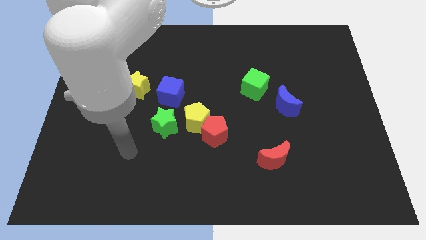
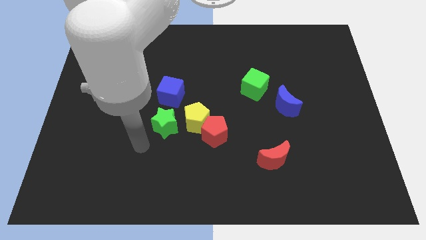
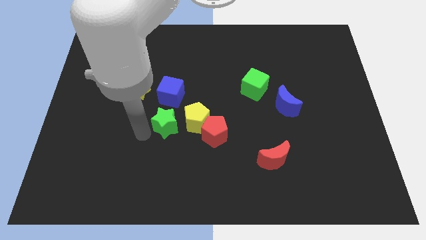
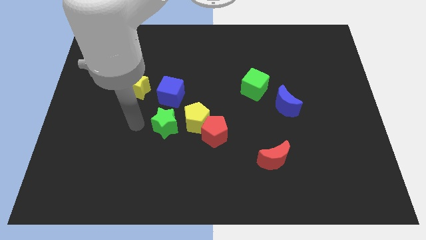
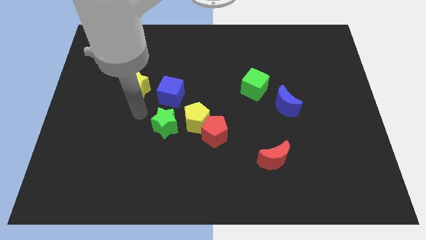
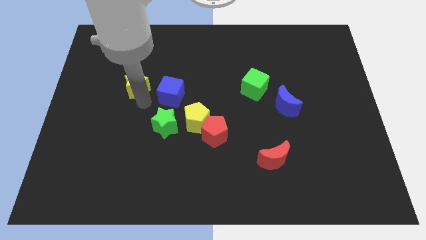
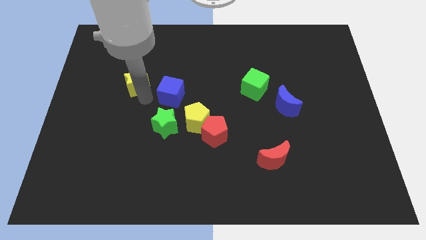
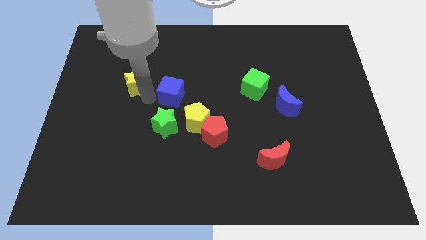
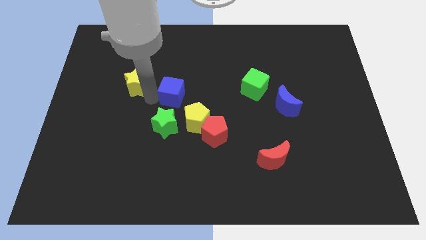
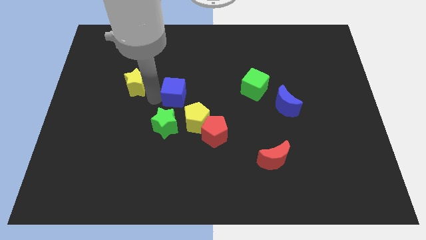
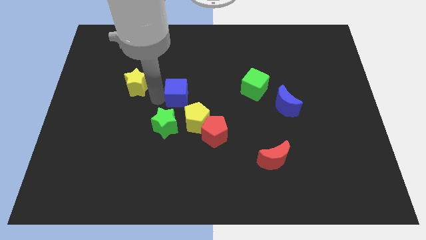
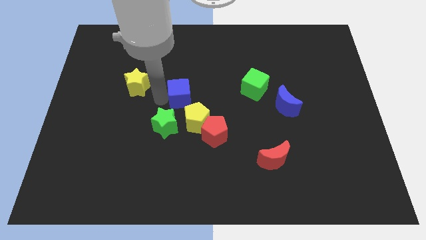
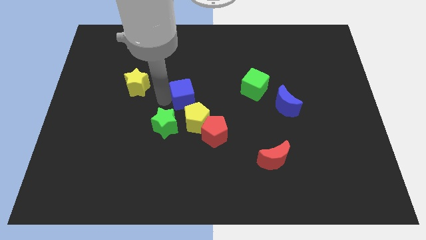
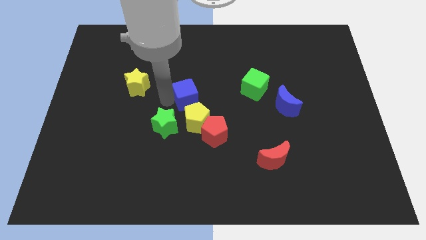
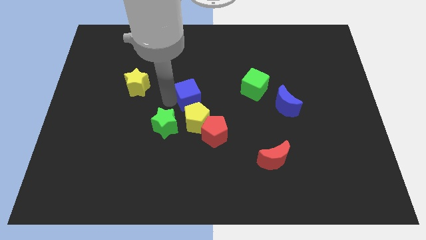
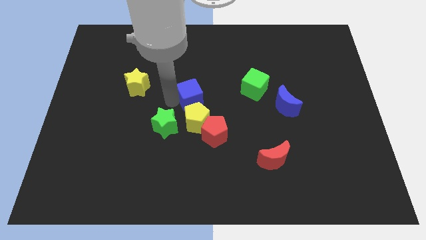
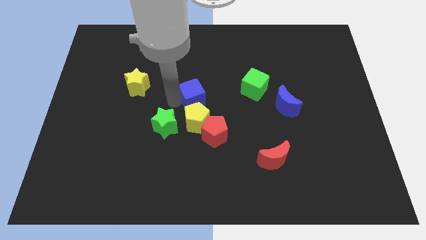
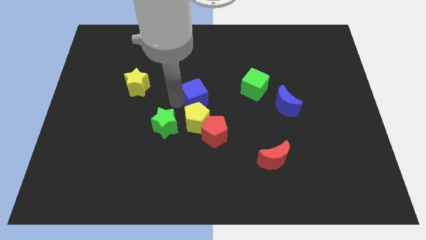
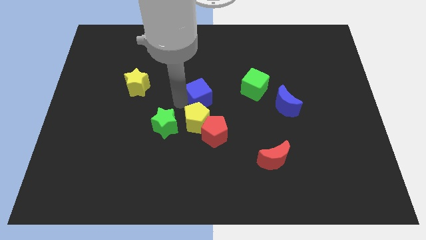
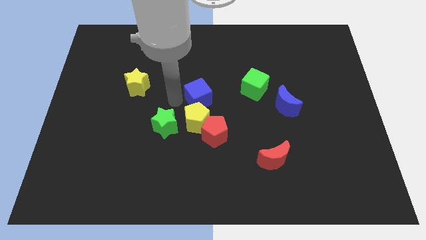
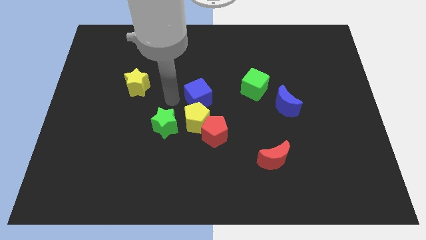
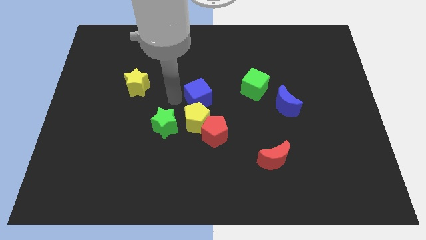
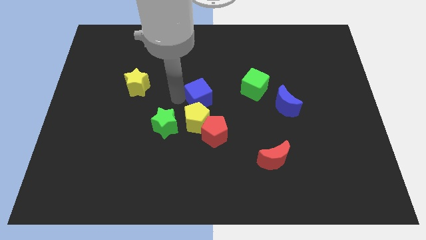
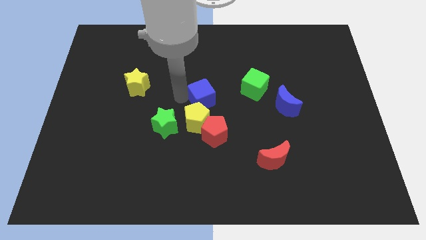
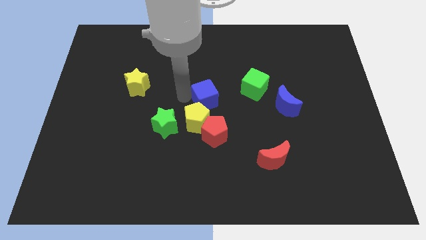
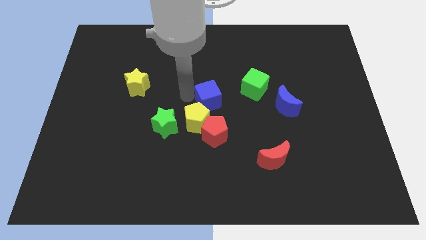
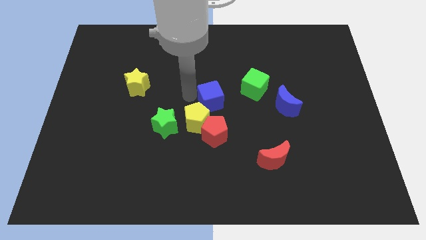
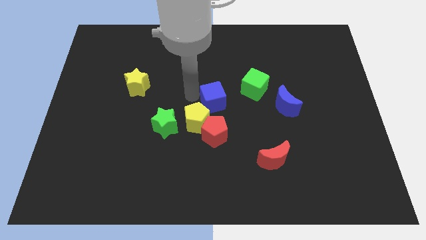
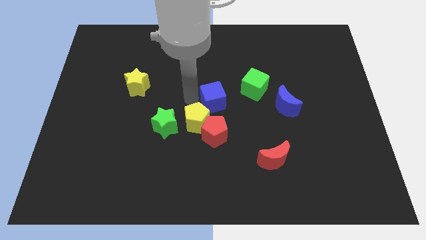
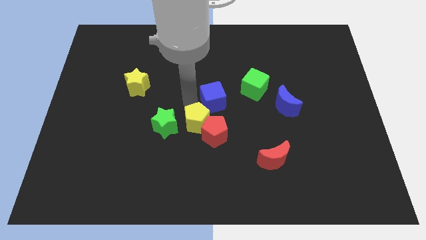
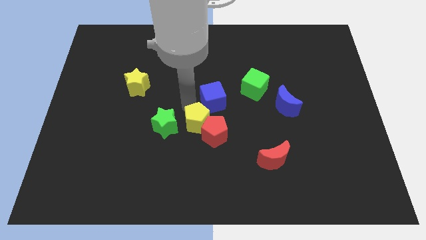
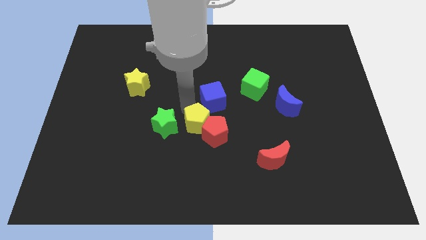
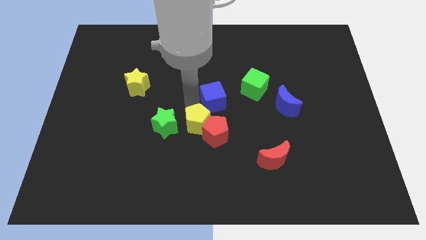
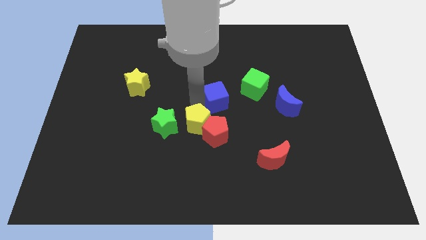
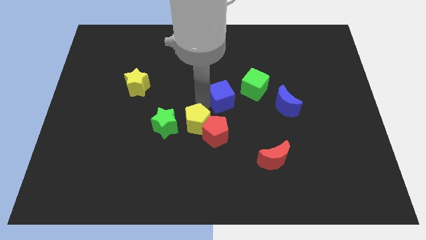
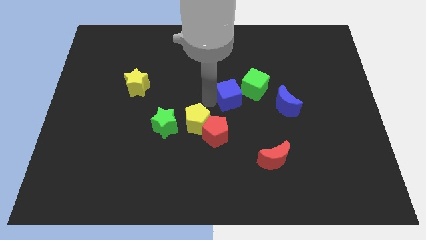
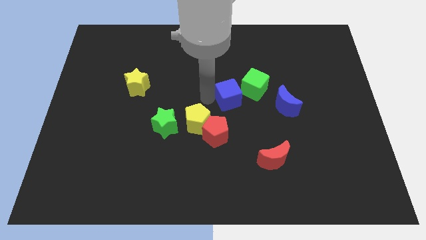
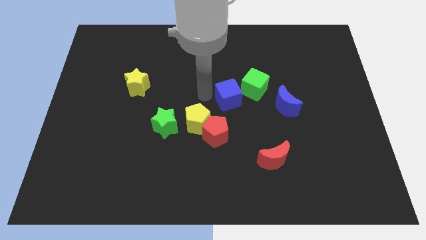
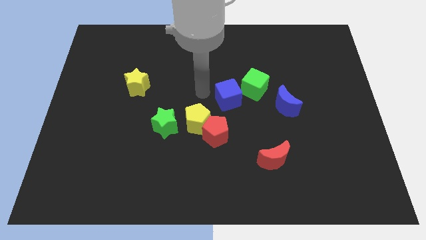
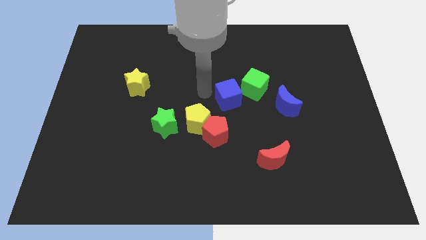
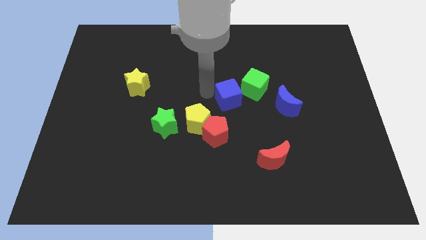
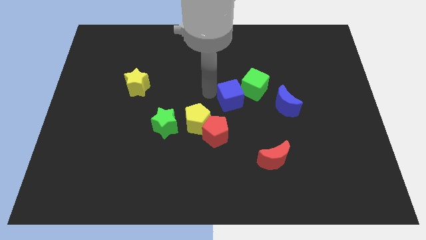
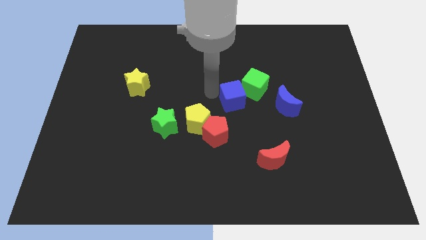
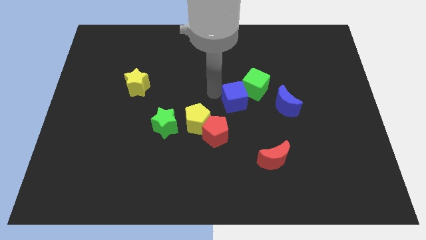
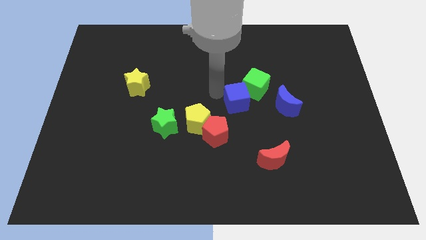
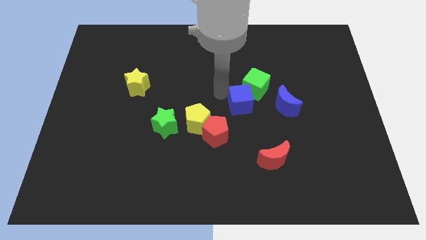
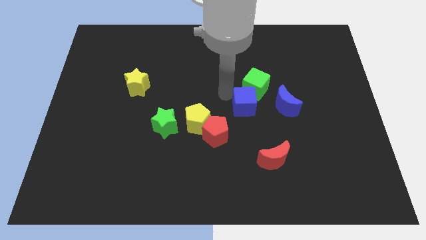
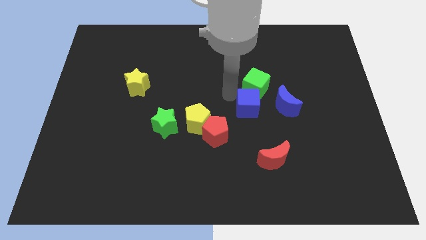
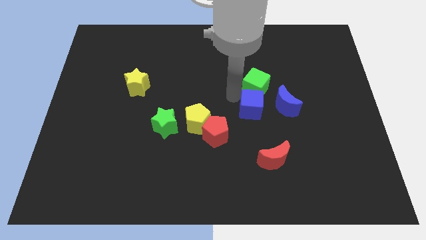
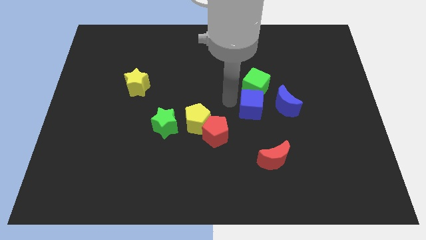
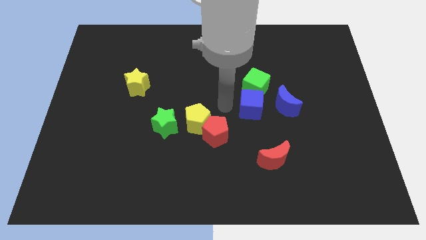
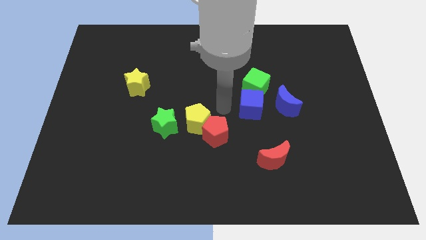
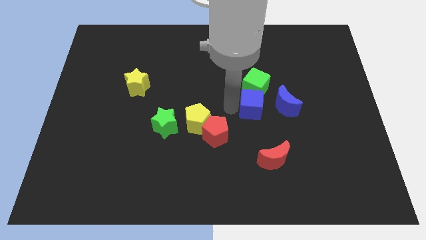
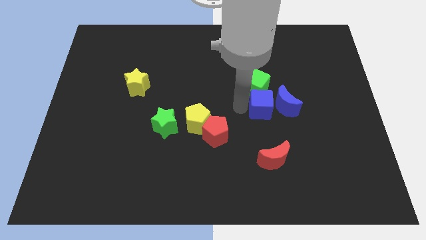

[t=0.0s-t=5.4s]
put the blue cube close to the blue moon

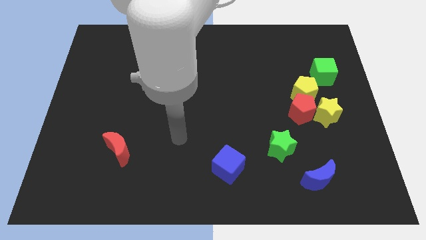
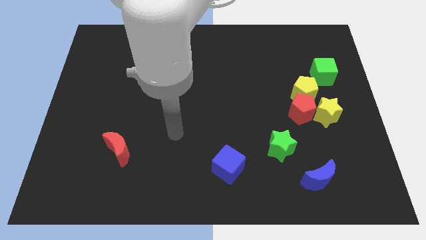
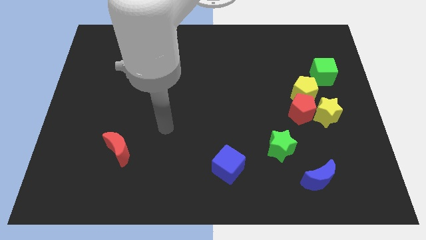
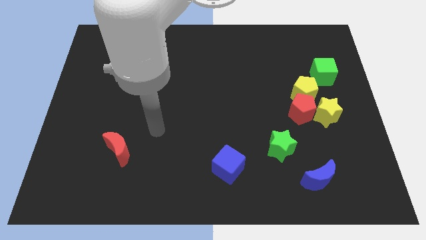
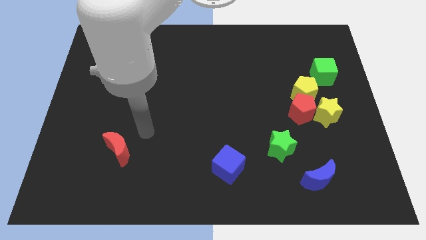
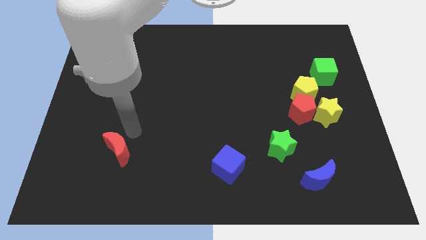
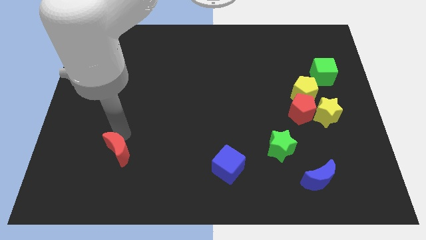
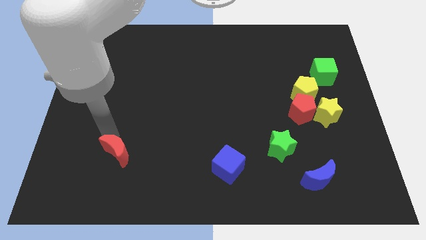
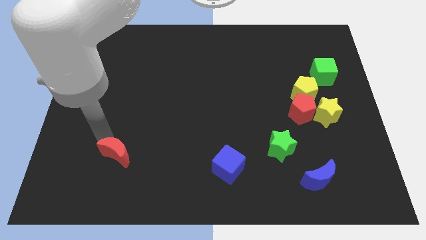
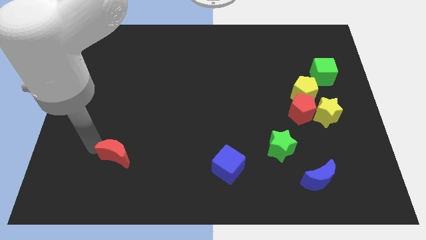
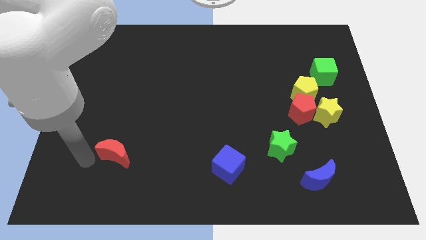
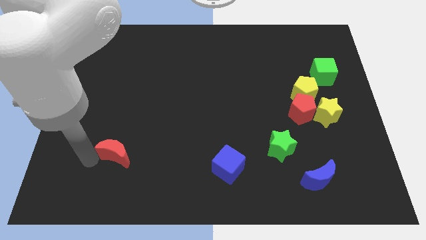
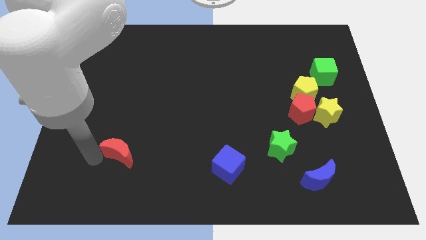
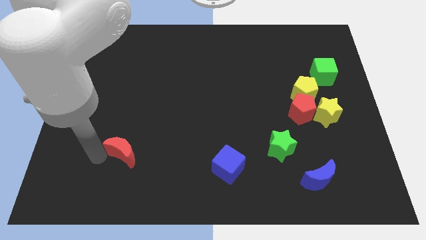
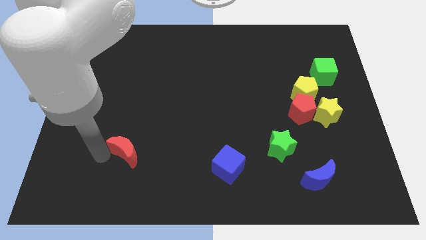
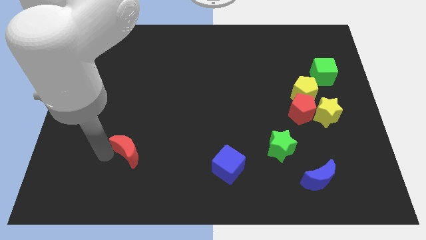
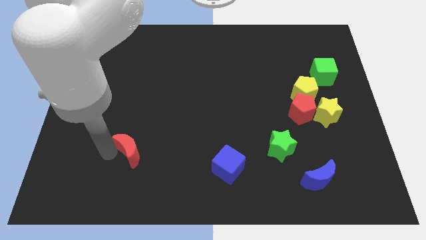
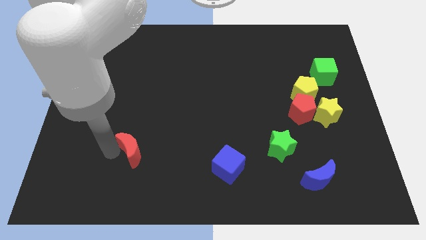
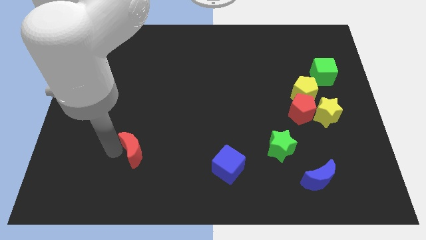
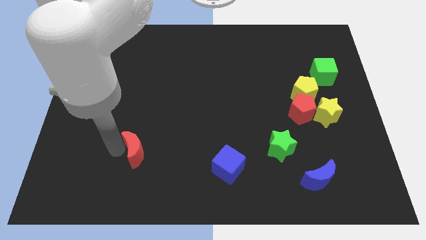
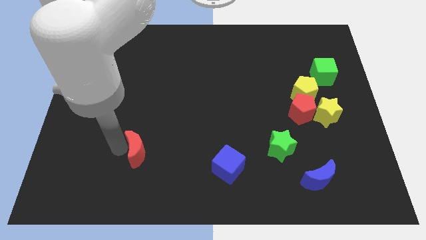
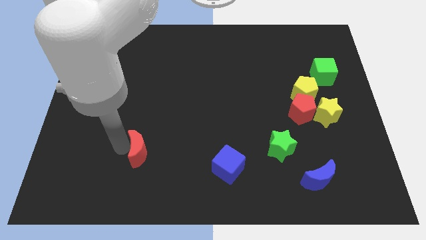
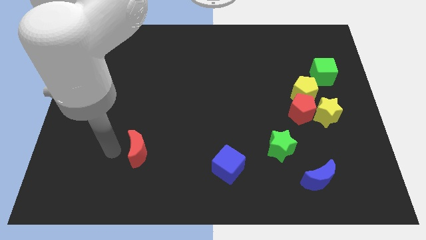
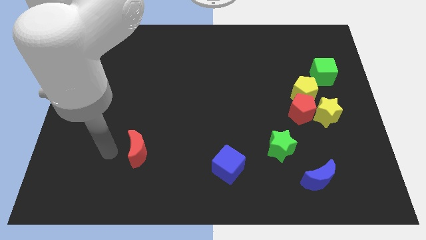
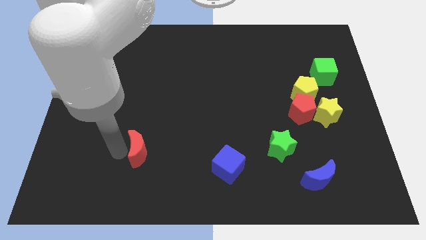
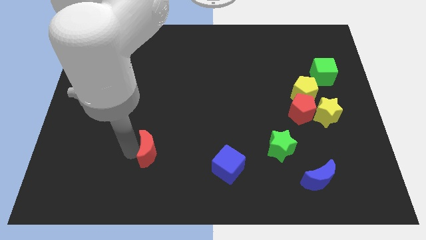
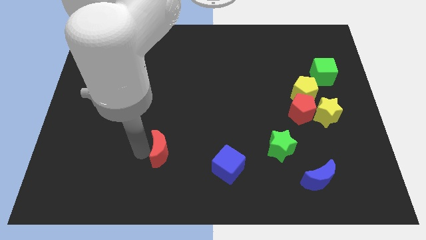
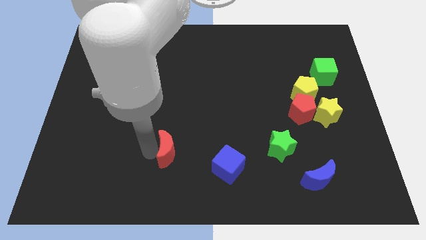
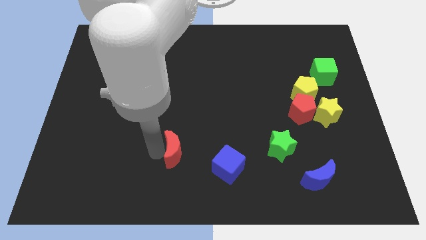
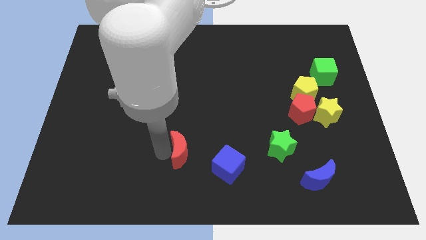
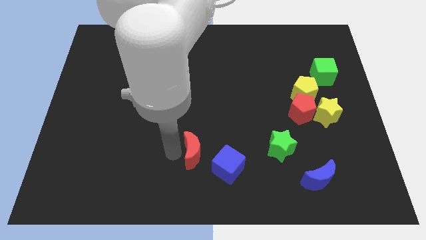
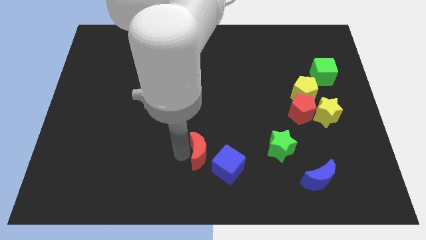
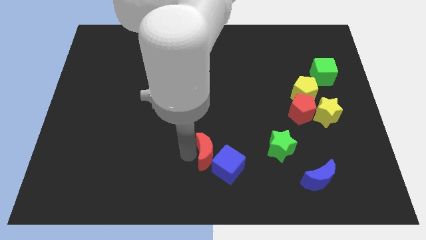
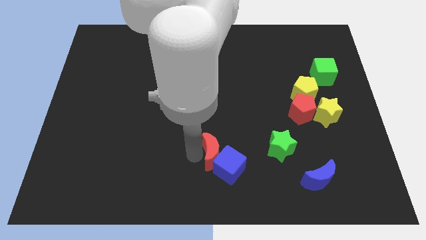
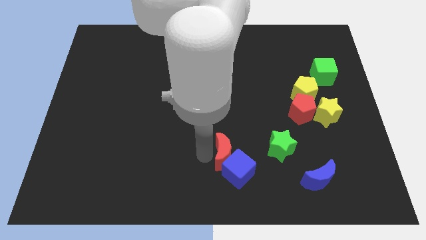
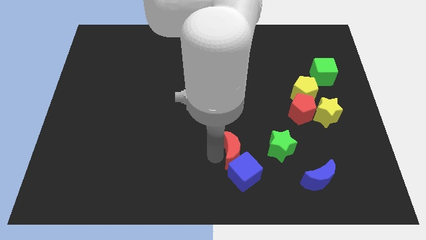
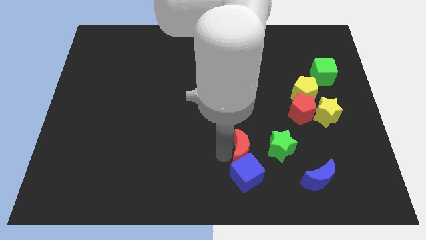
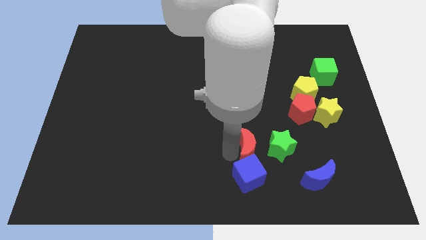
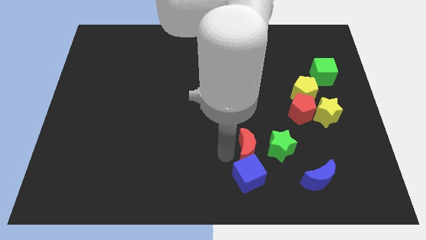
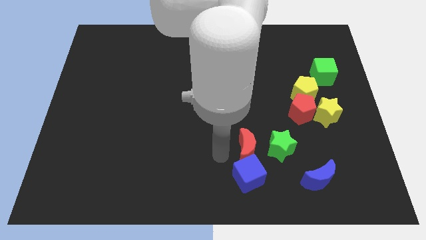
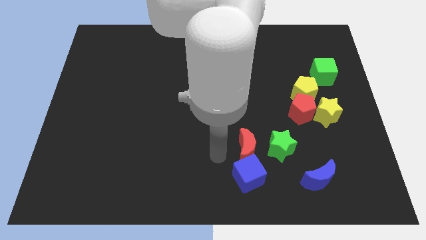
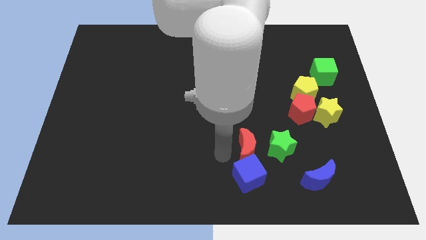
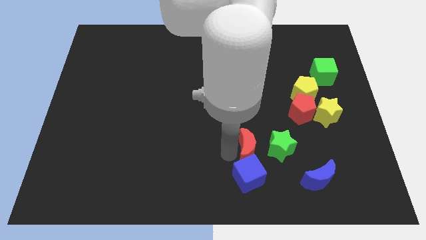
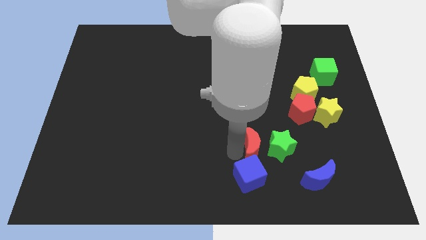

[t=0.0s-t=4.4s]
move the red moon to the green star
